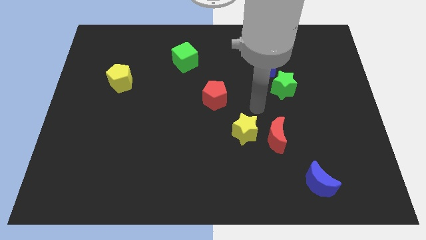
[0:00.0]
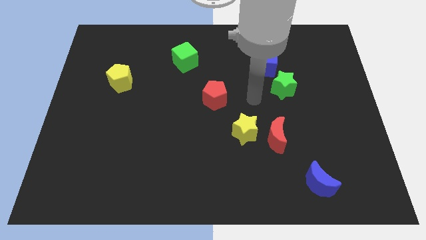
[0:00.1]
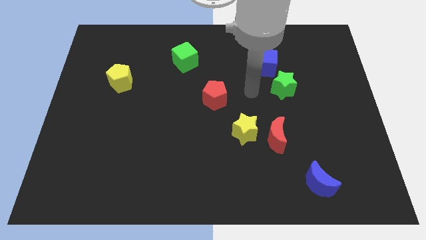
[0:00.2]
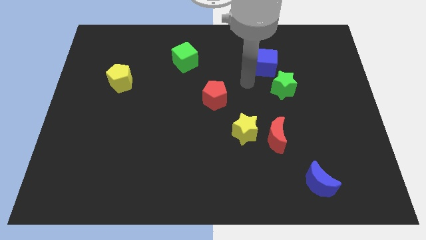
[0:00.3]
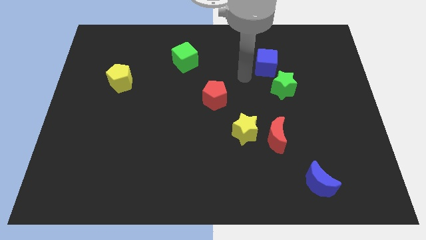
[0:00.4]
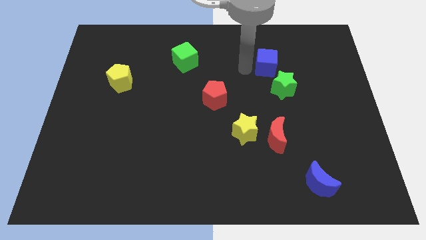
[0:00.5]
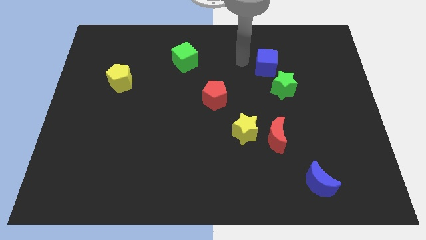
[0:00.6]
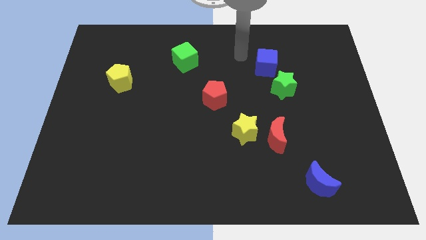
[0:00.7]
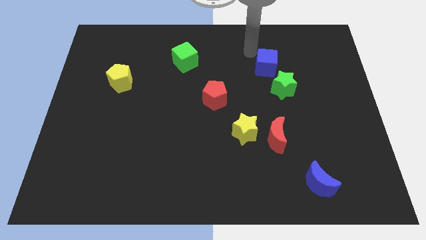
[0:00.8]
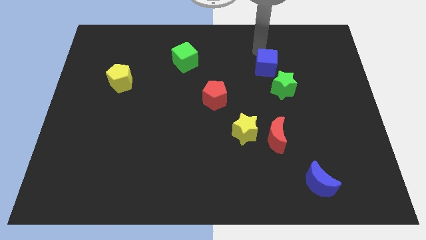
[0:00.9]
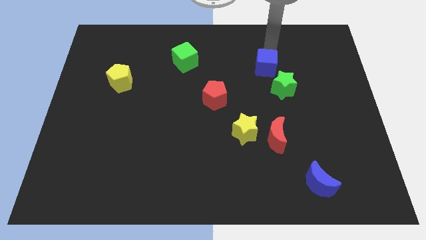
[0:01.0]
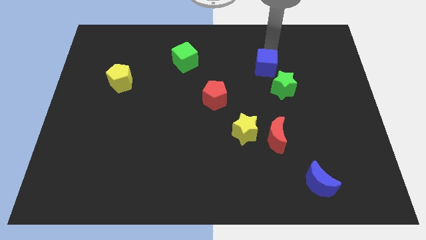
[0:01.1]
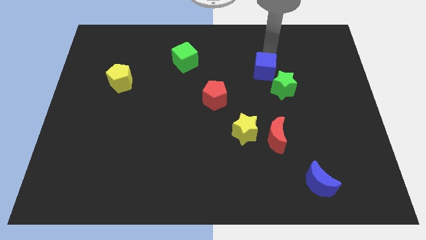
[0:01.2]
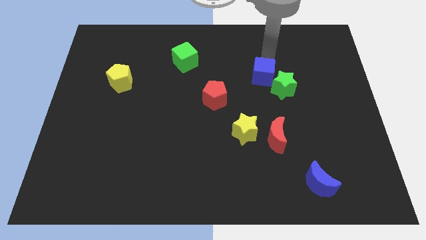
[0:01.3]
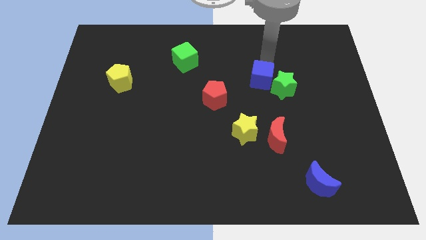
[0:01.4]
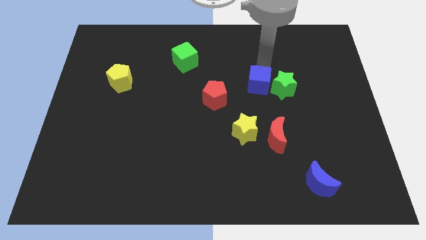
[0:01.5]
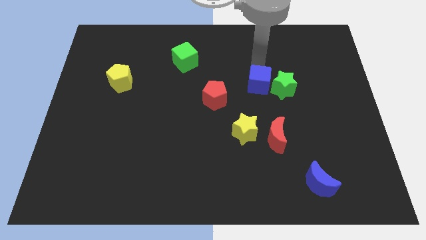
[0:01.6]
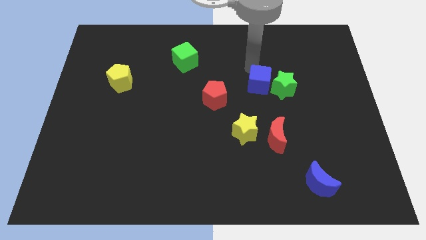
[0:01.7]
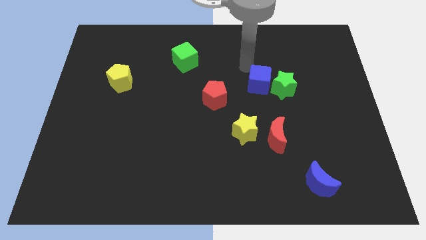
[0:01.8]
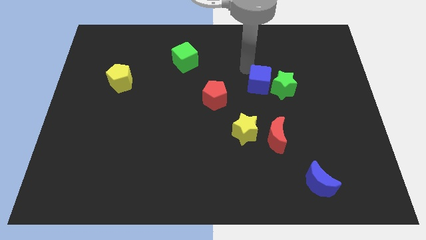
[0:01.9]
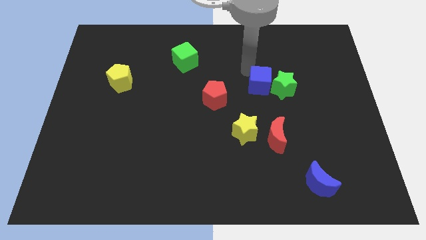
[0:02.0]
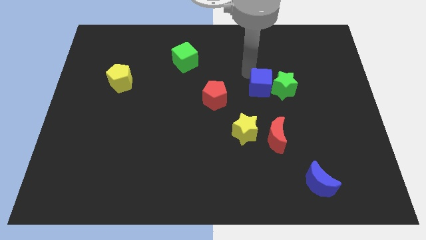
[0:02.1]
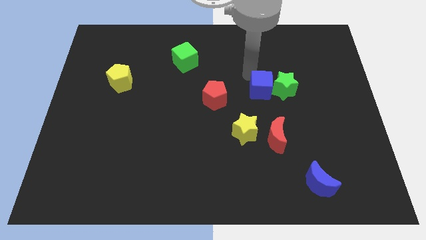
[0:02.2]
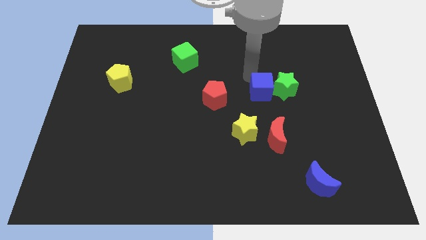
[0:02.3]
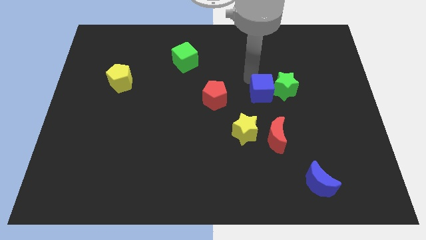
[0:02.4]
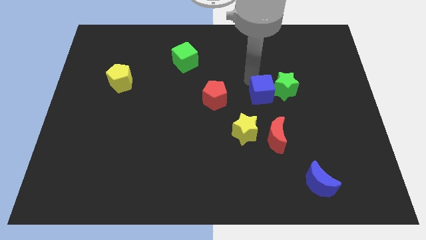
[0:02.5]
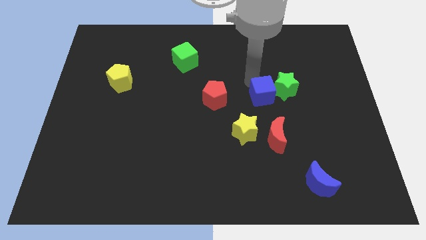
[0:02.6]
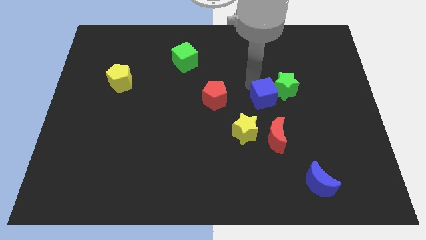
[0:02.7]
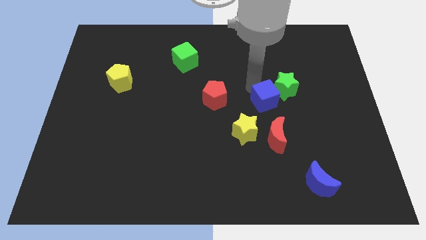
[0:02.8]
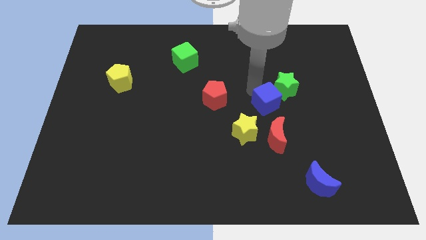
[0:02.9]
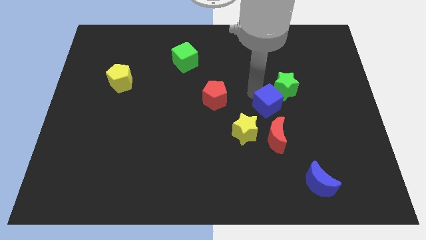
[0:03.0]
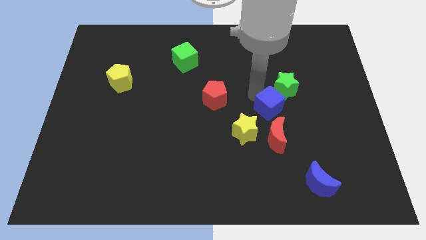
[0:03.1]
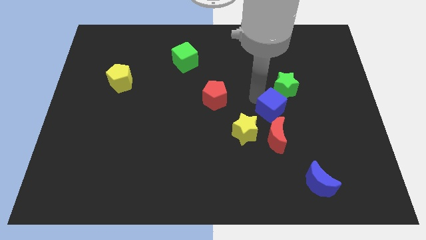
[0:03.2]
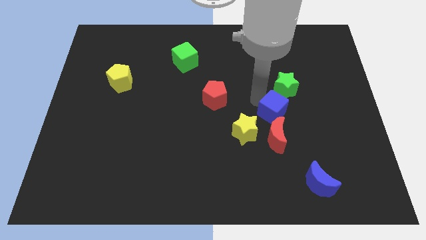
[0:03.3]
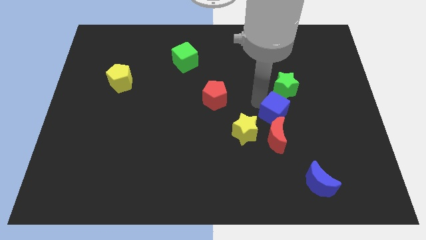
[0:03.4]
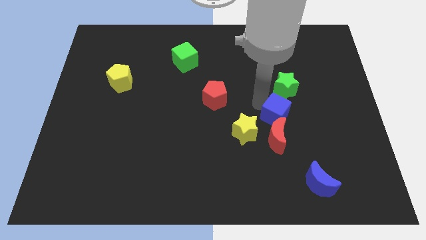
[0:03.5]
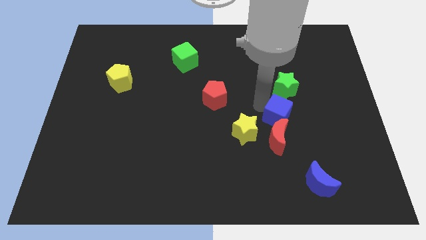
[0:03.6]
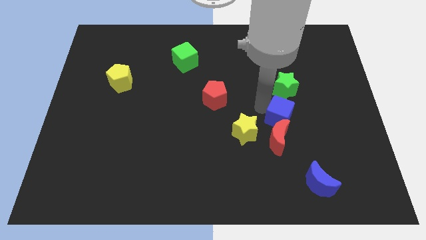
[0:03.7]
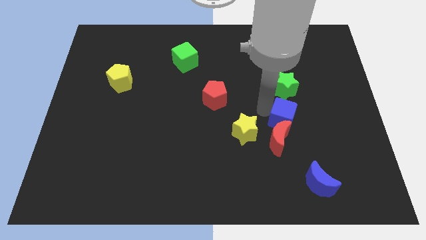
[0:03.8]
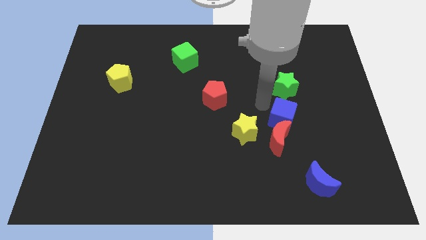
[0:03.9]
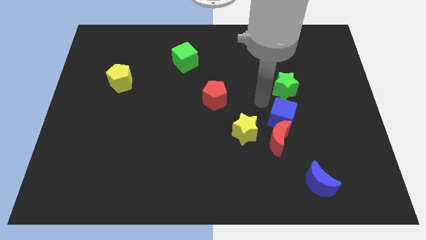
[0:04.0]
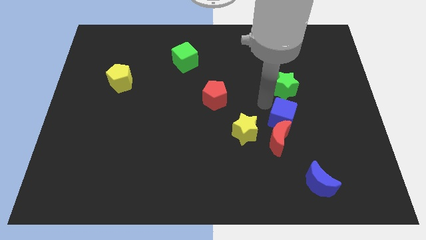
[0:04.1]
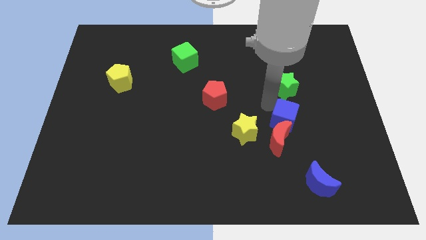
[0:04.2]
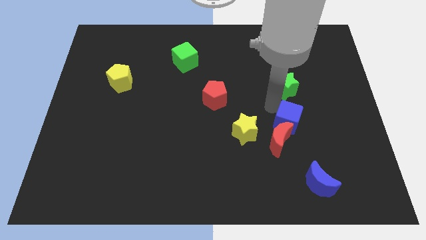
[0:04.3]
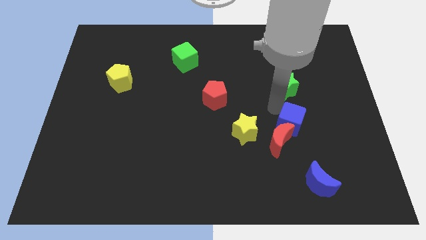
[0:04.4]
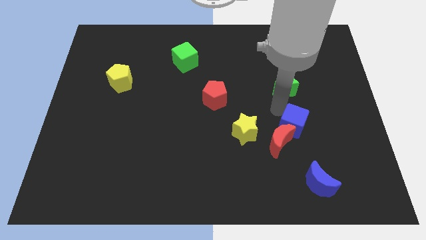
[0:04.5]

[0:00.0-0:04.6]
move the blue cube to the top of the blue moon

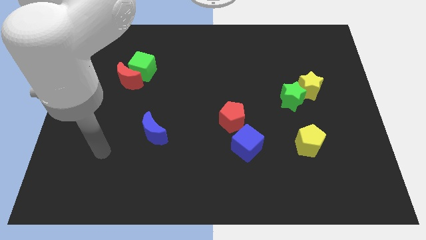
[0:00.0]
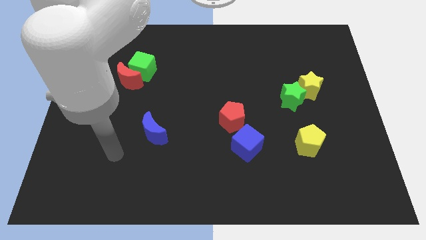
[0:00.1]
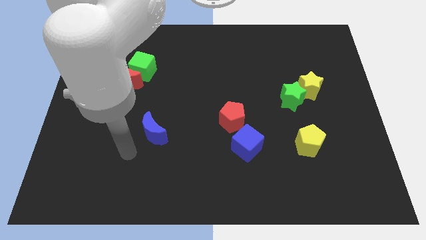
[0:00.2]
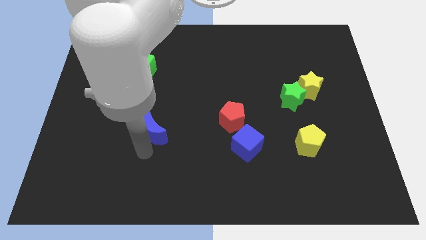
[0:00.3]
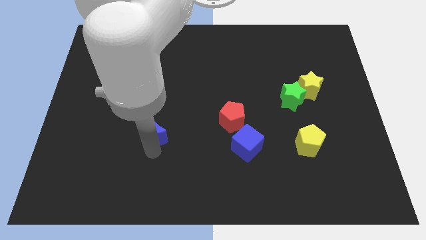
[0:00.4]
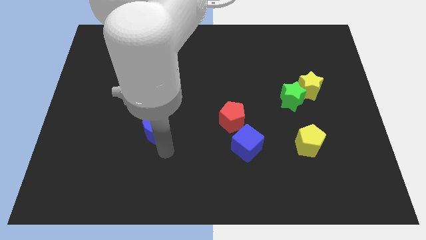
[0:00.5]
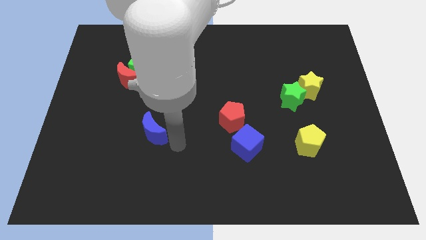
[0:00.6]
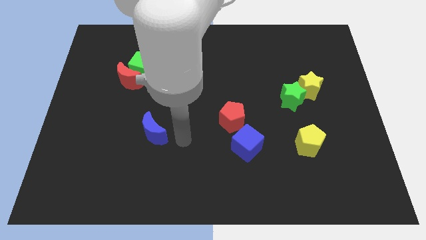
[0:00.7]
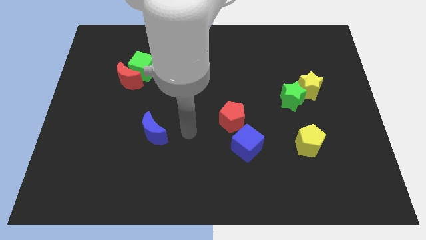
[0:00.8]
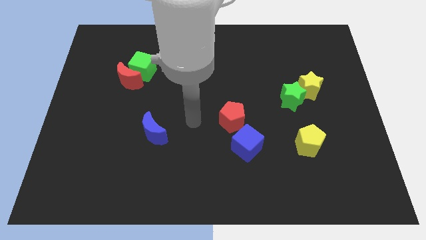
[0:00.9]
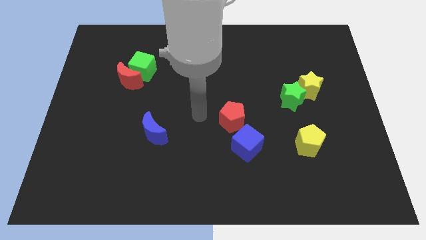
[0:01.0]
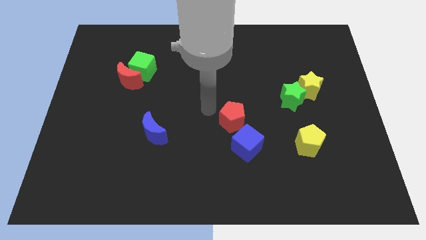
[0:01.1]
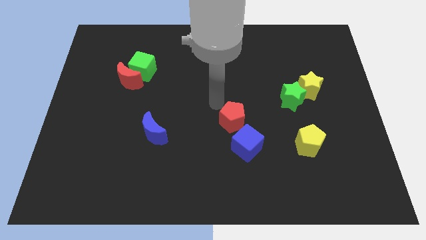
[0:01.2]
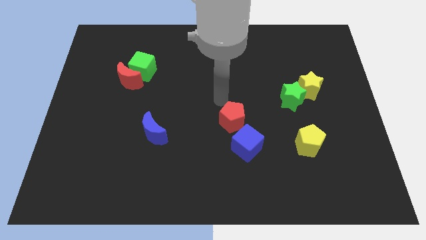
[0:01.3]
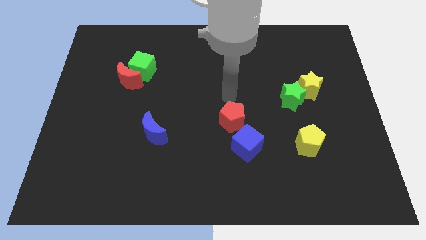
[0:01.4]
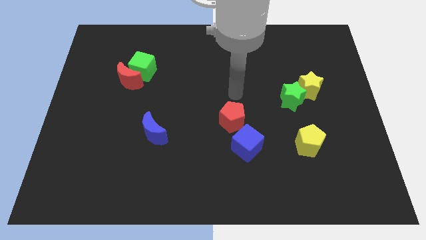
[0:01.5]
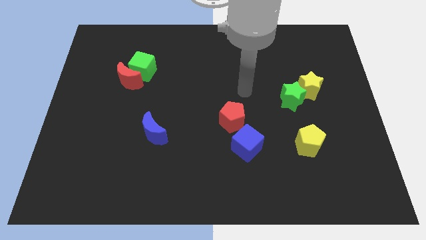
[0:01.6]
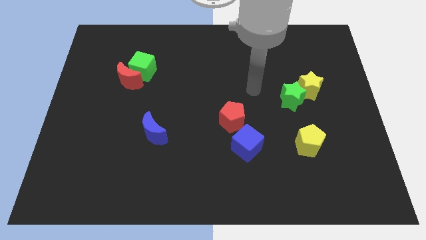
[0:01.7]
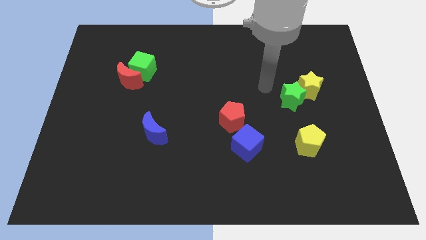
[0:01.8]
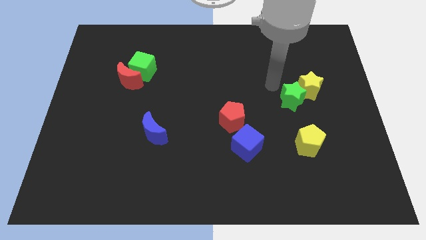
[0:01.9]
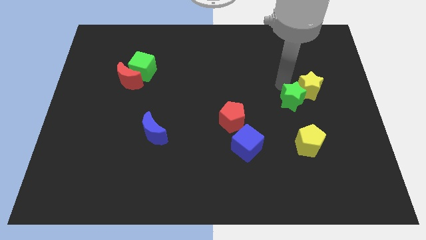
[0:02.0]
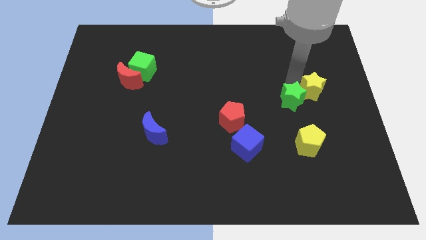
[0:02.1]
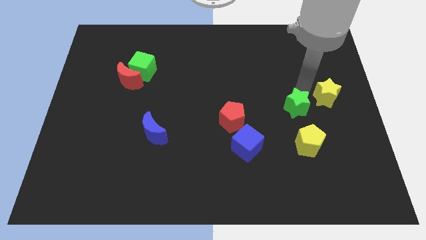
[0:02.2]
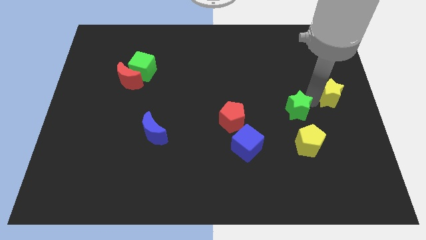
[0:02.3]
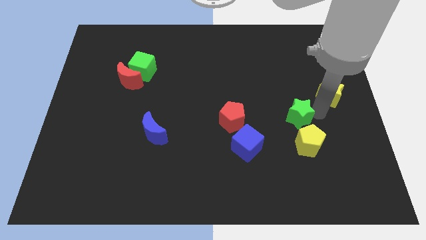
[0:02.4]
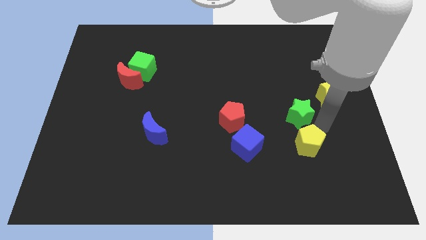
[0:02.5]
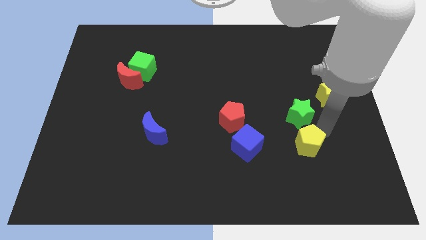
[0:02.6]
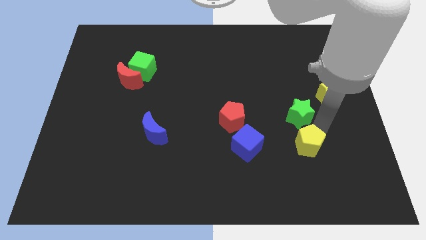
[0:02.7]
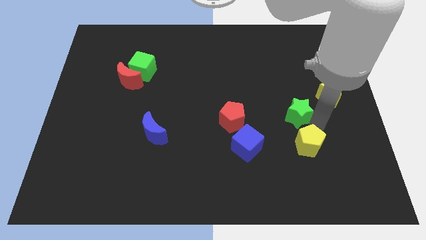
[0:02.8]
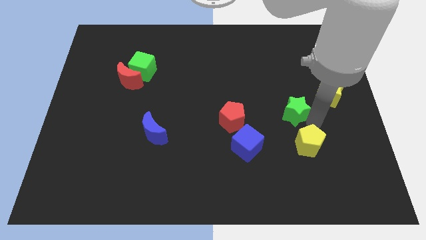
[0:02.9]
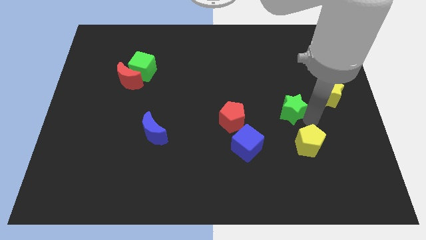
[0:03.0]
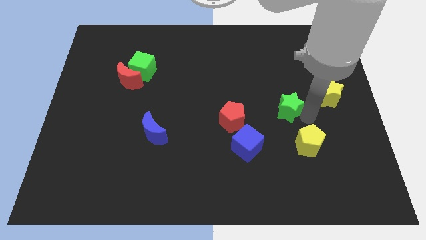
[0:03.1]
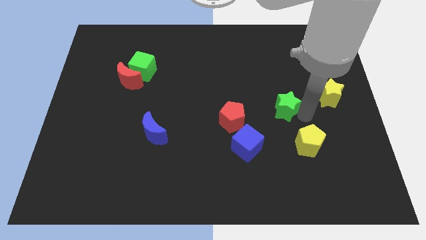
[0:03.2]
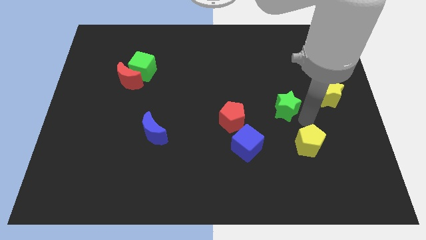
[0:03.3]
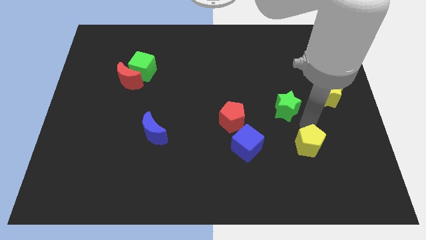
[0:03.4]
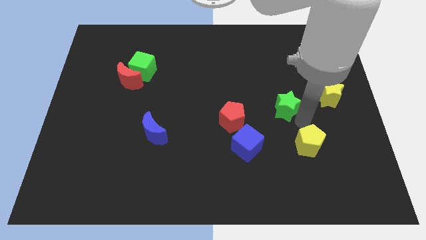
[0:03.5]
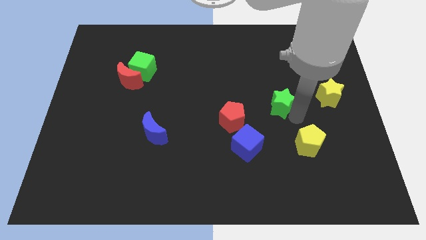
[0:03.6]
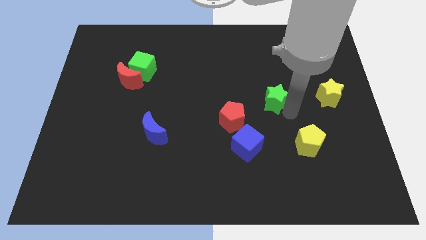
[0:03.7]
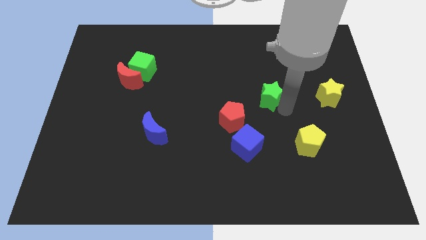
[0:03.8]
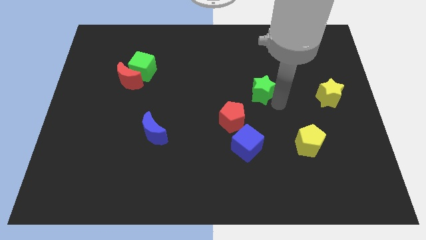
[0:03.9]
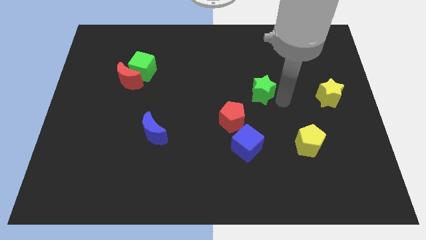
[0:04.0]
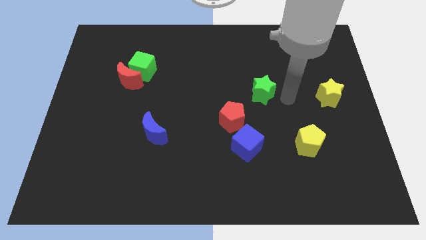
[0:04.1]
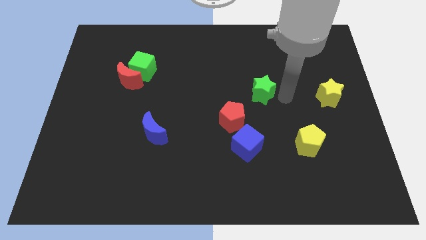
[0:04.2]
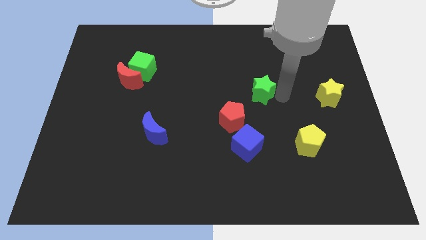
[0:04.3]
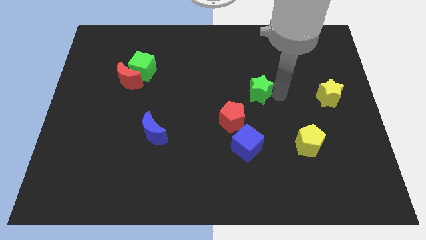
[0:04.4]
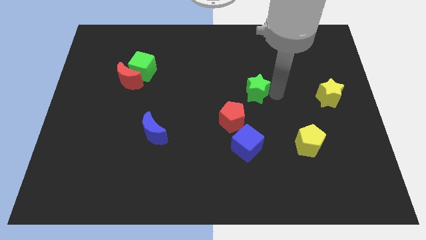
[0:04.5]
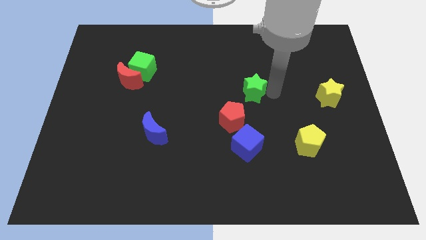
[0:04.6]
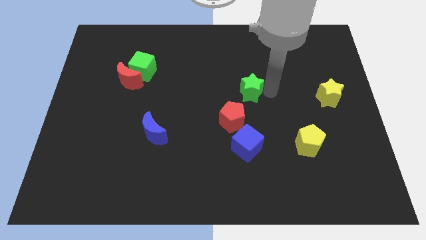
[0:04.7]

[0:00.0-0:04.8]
put the green star to the top of the red pentagon
